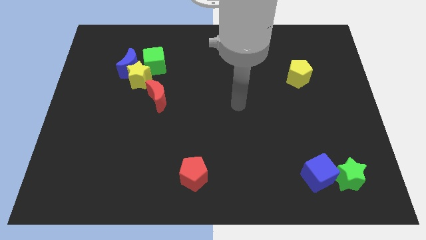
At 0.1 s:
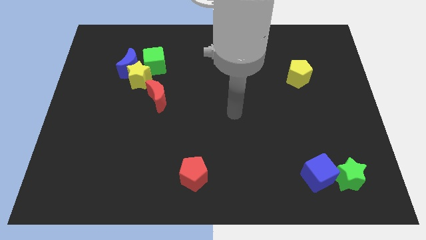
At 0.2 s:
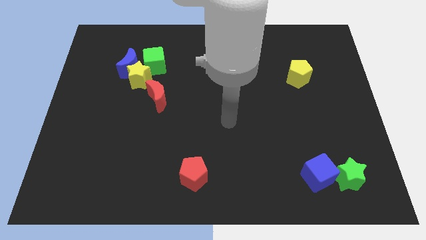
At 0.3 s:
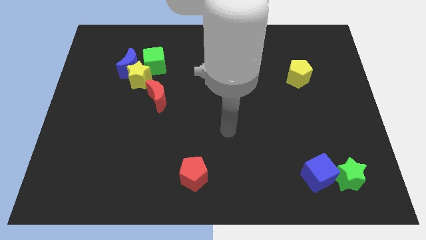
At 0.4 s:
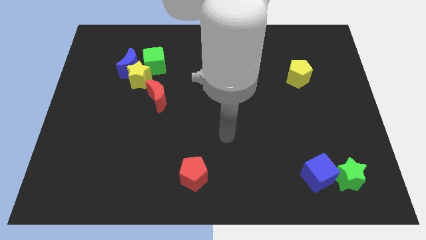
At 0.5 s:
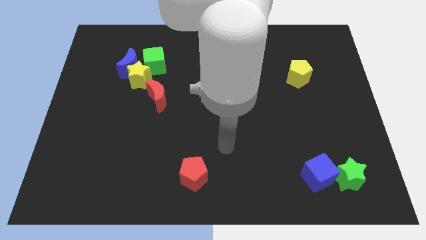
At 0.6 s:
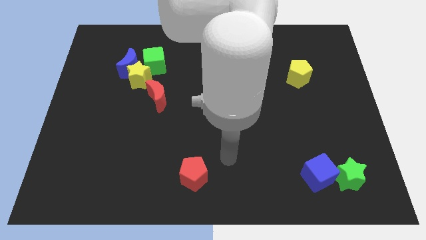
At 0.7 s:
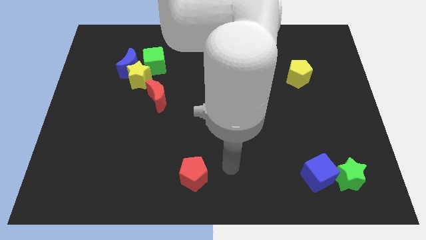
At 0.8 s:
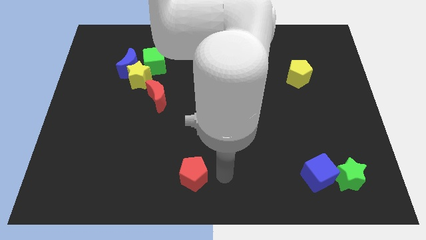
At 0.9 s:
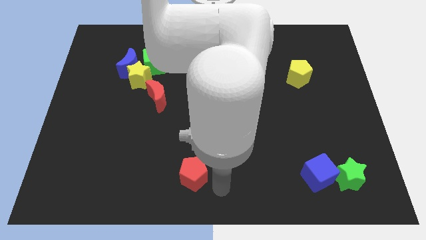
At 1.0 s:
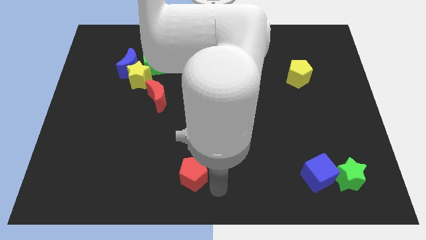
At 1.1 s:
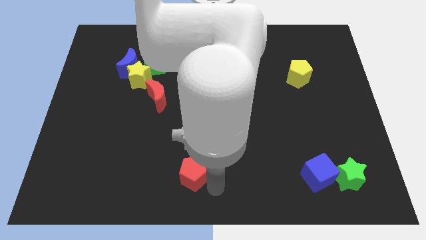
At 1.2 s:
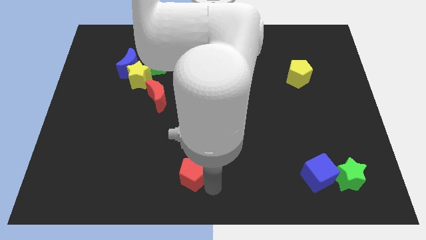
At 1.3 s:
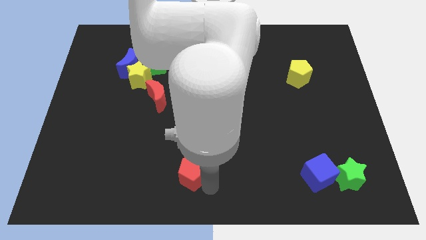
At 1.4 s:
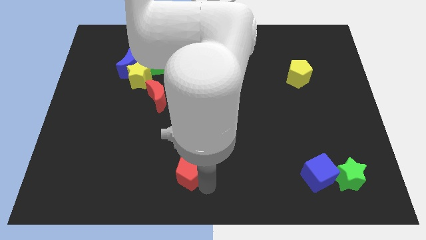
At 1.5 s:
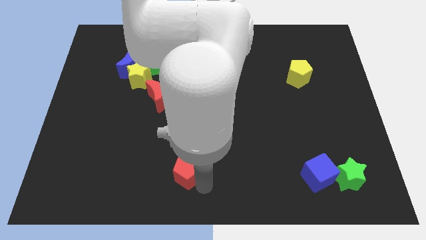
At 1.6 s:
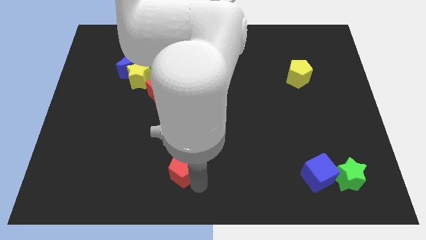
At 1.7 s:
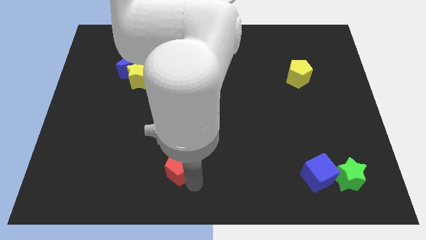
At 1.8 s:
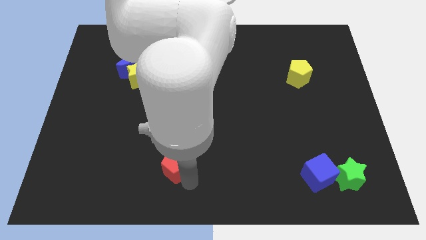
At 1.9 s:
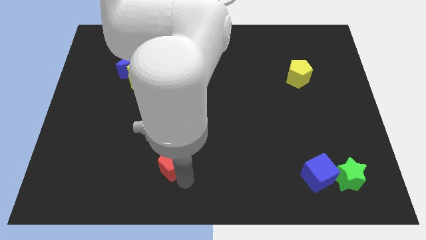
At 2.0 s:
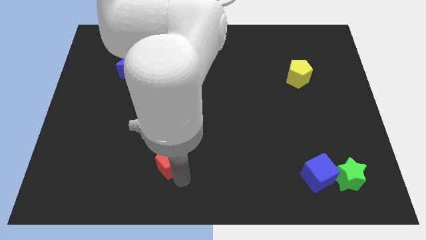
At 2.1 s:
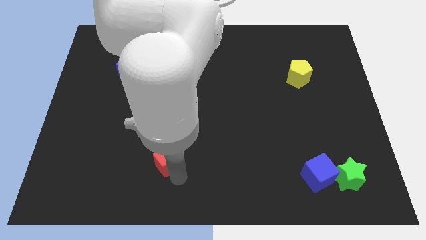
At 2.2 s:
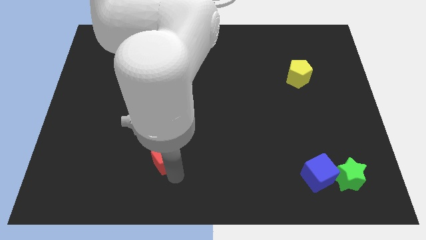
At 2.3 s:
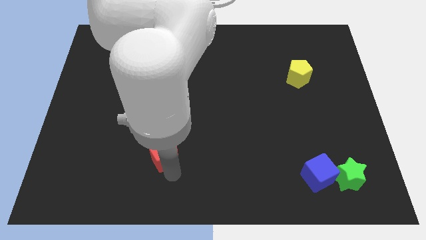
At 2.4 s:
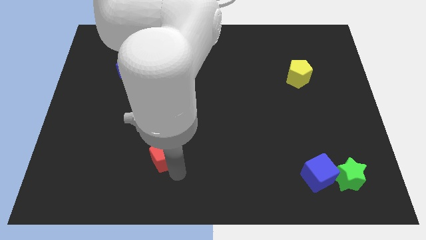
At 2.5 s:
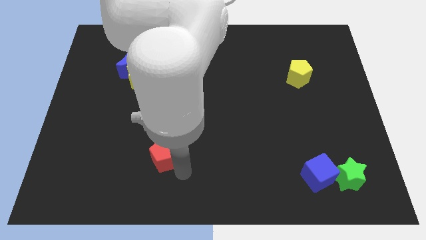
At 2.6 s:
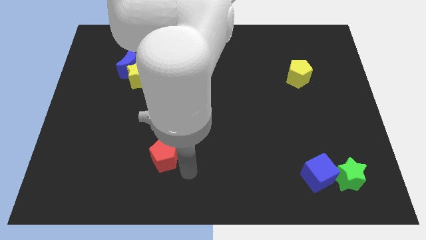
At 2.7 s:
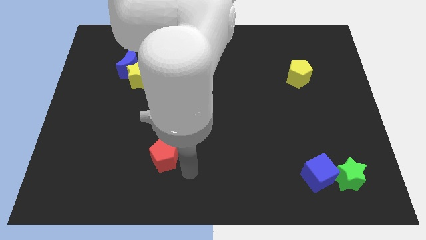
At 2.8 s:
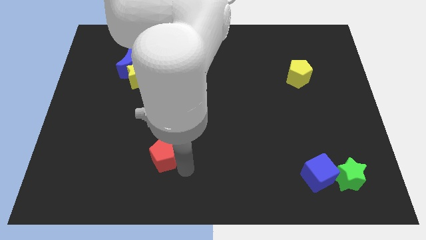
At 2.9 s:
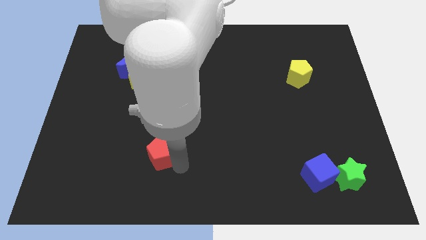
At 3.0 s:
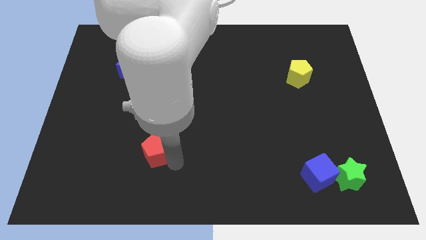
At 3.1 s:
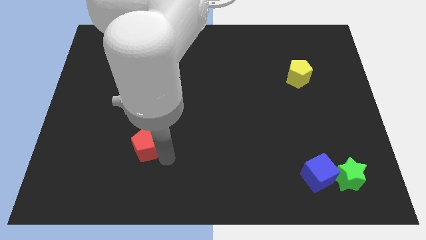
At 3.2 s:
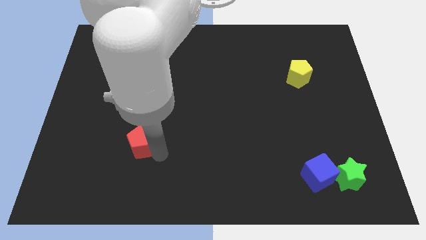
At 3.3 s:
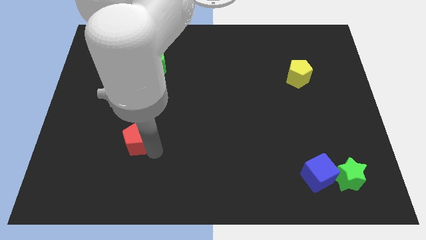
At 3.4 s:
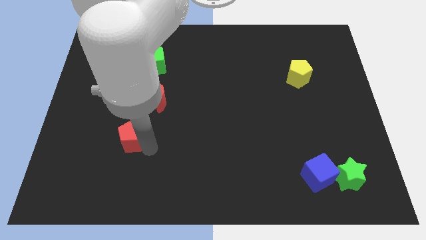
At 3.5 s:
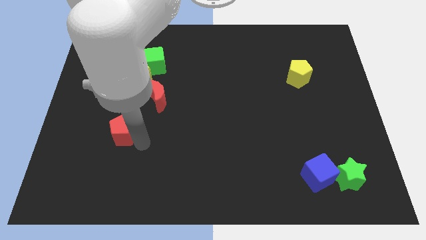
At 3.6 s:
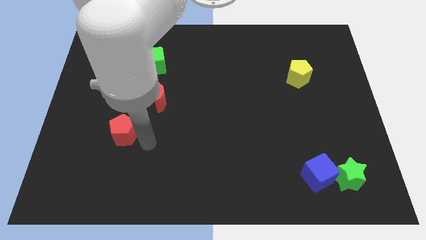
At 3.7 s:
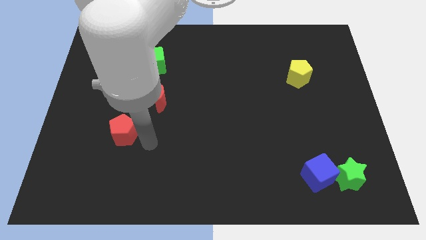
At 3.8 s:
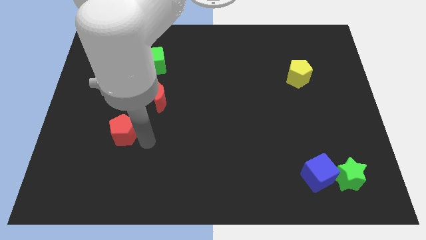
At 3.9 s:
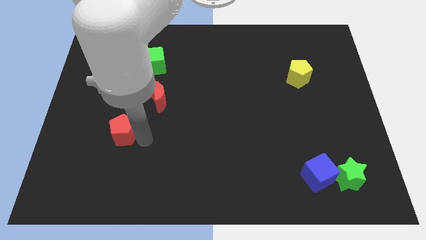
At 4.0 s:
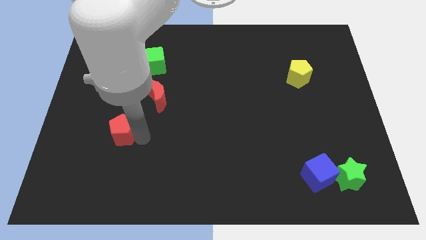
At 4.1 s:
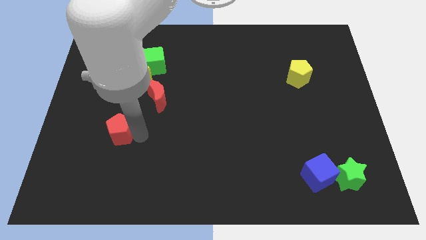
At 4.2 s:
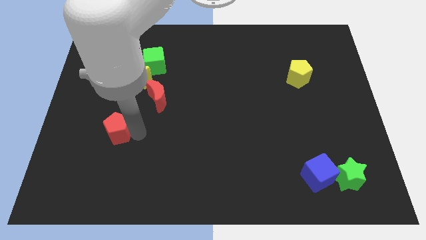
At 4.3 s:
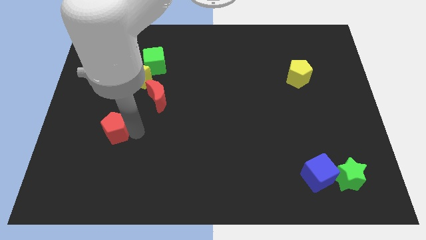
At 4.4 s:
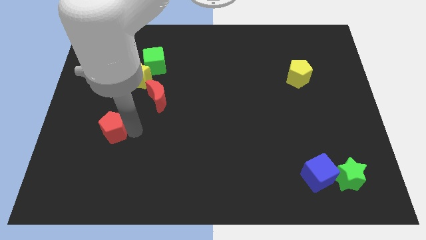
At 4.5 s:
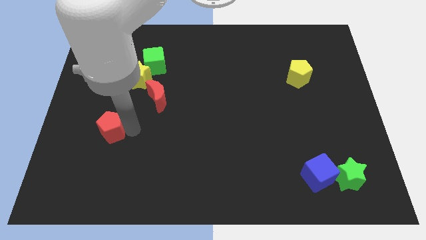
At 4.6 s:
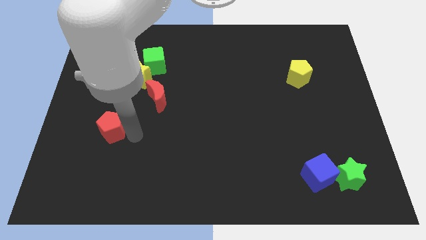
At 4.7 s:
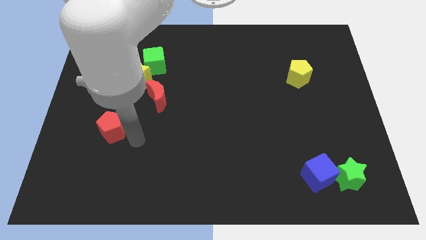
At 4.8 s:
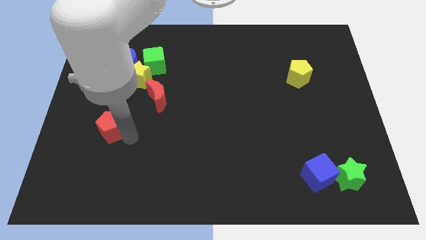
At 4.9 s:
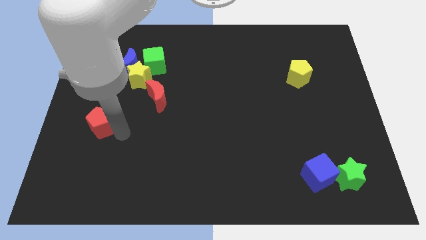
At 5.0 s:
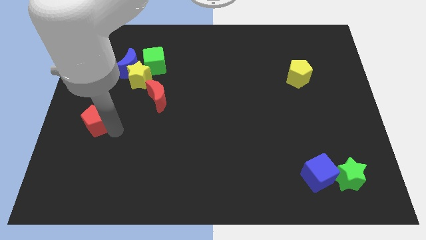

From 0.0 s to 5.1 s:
slide the red pentagon to the left side

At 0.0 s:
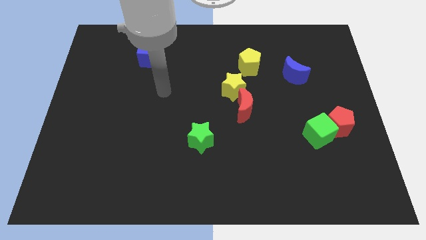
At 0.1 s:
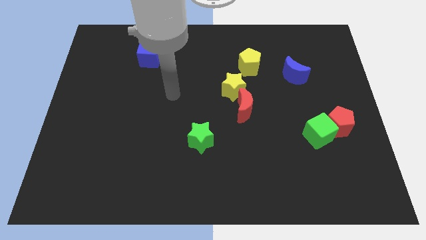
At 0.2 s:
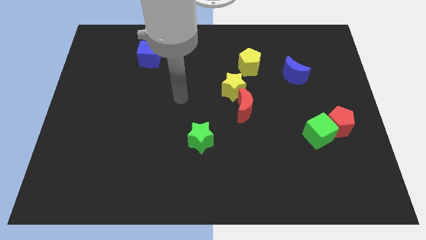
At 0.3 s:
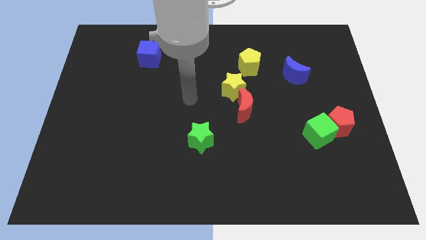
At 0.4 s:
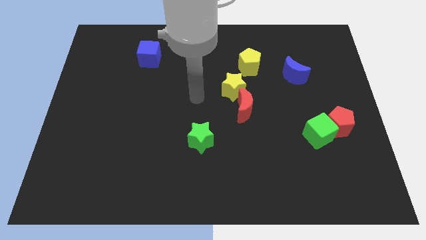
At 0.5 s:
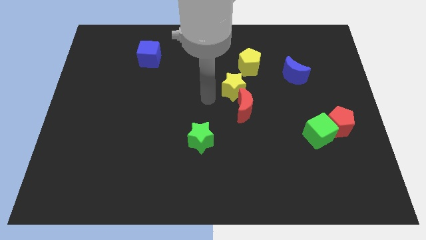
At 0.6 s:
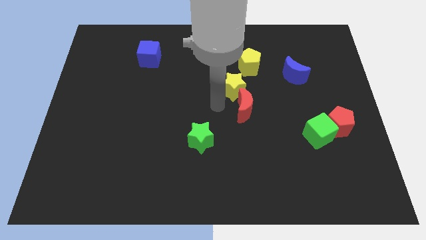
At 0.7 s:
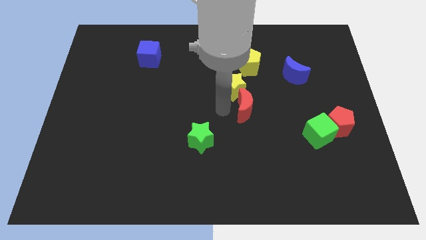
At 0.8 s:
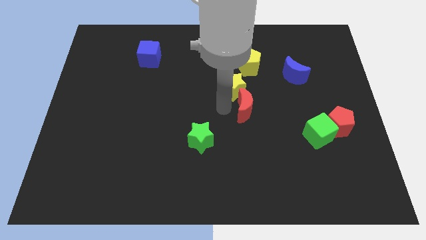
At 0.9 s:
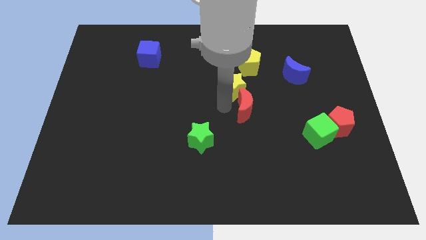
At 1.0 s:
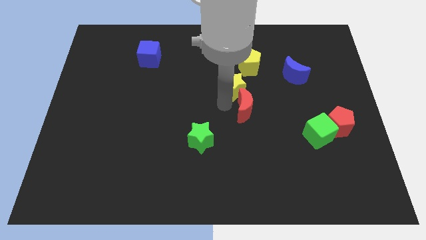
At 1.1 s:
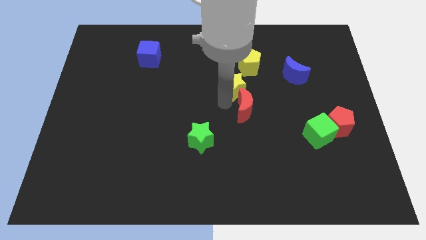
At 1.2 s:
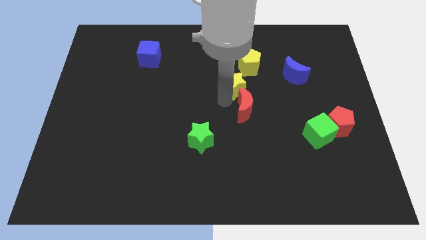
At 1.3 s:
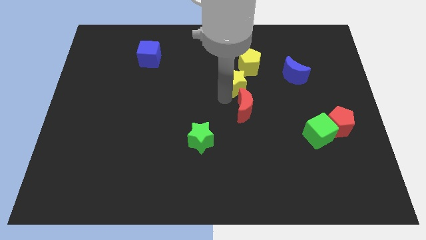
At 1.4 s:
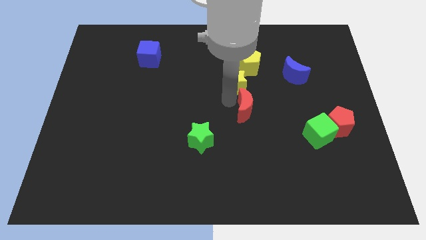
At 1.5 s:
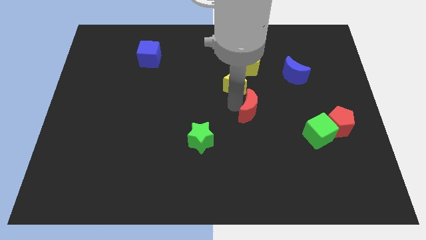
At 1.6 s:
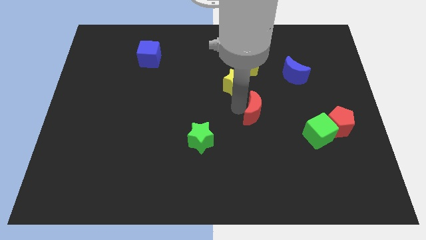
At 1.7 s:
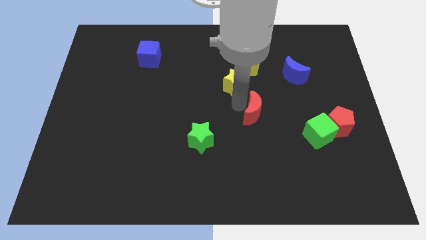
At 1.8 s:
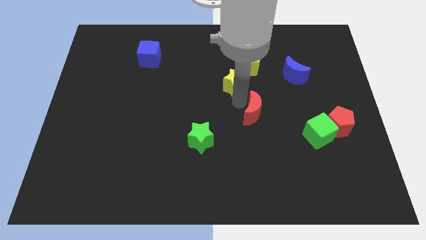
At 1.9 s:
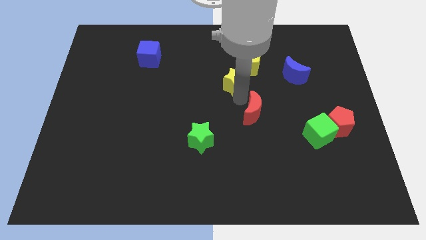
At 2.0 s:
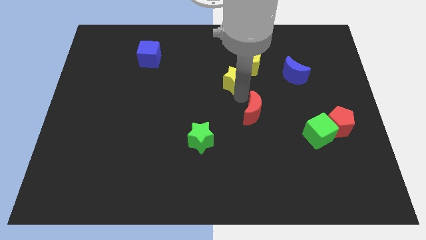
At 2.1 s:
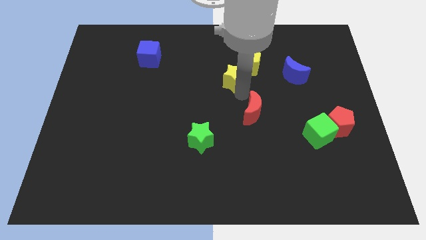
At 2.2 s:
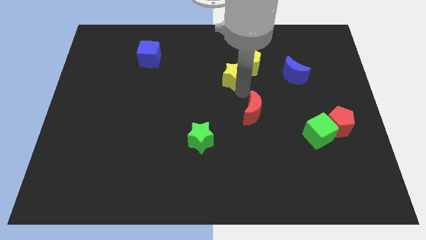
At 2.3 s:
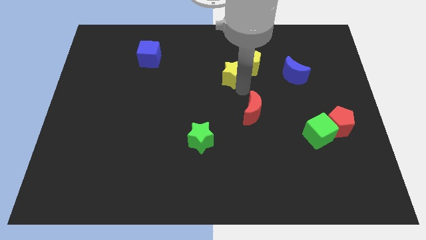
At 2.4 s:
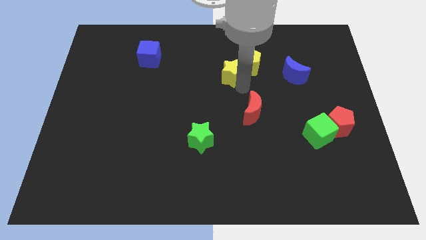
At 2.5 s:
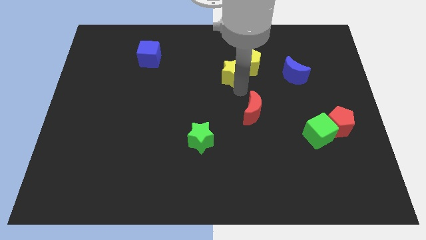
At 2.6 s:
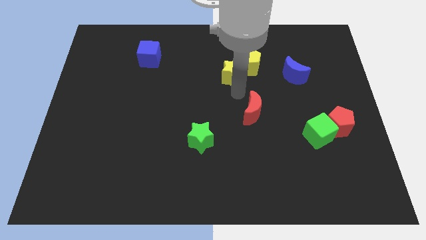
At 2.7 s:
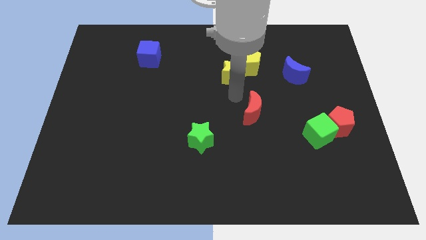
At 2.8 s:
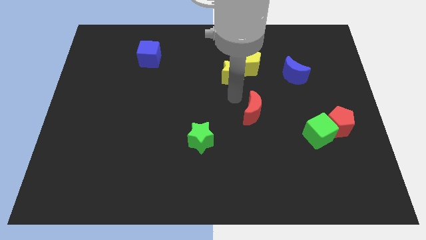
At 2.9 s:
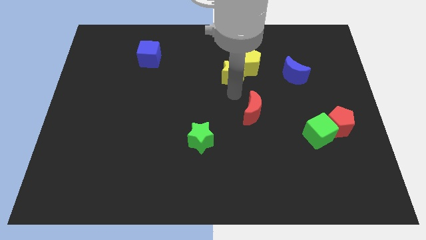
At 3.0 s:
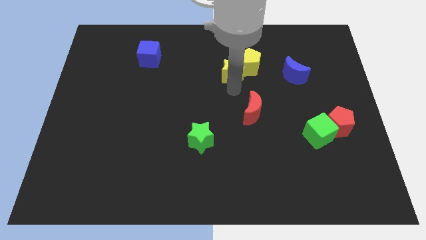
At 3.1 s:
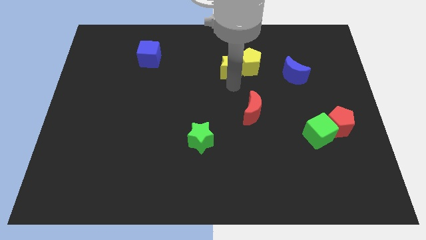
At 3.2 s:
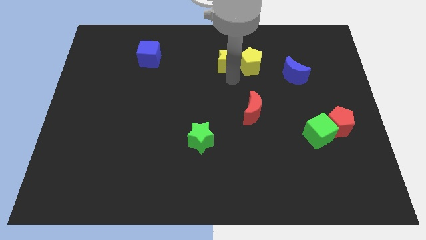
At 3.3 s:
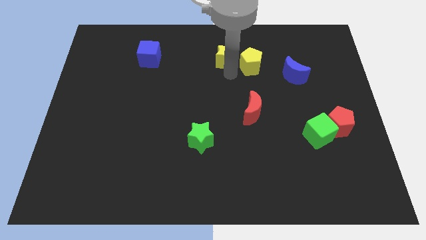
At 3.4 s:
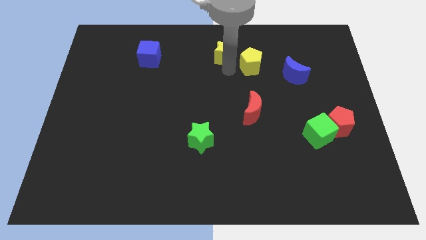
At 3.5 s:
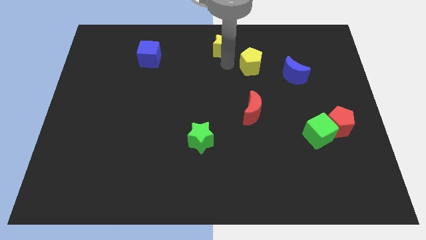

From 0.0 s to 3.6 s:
put the yellow star to the towards your base
